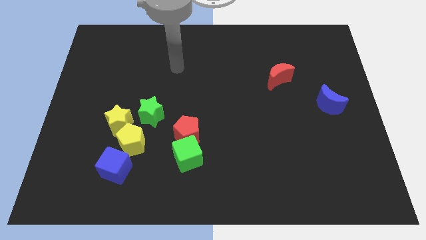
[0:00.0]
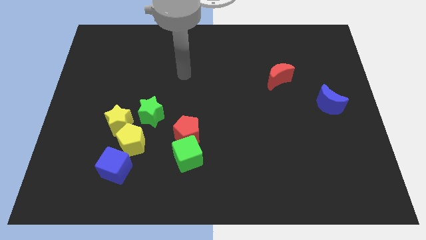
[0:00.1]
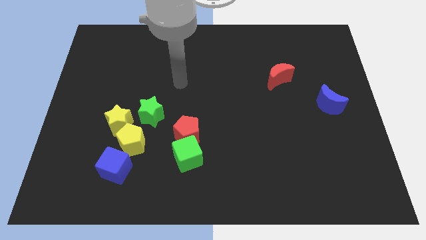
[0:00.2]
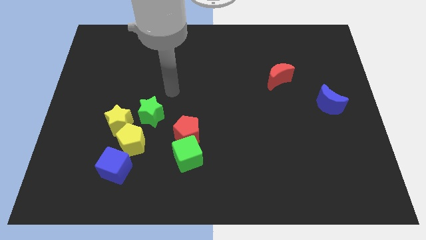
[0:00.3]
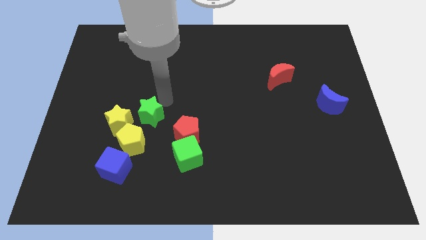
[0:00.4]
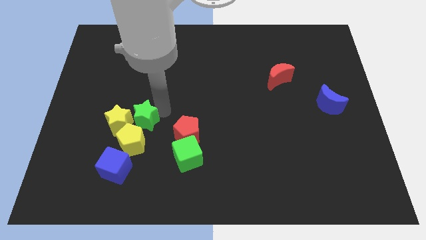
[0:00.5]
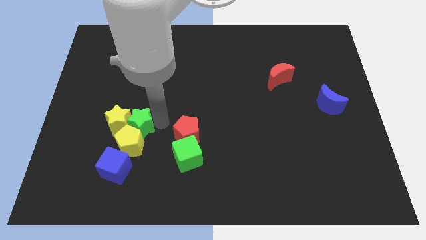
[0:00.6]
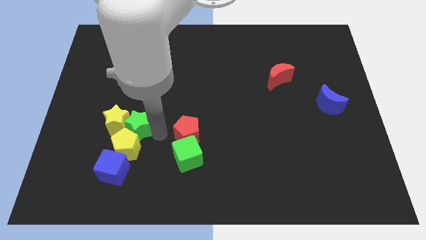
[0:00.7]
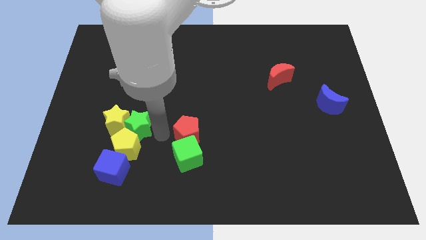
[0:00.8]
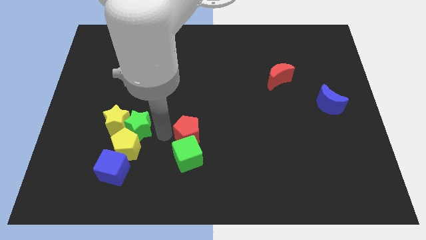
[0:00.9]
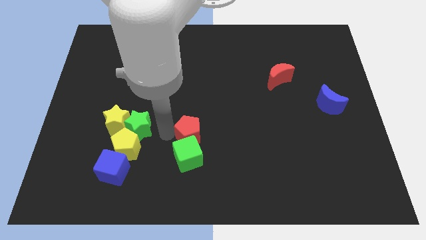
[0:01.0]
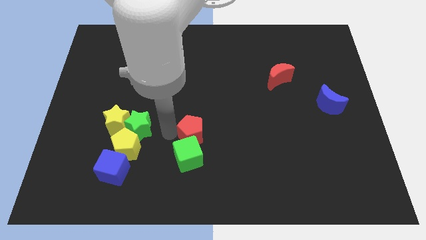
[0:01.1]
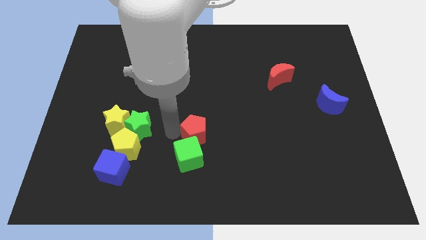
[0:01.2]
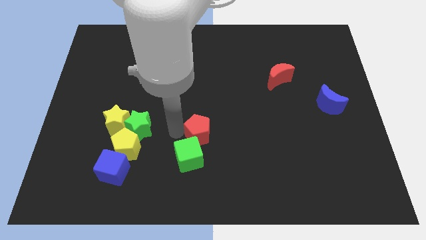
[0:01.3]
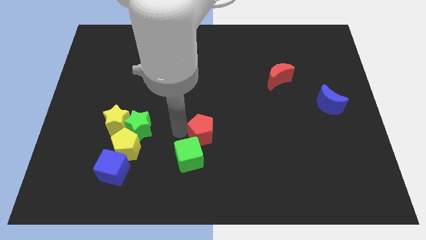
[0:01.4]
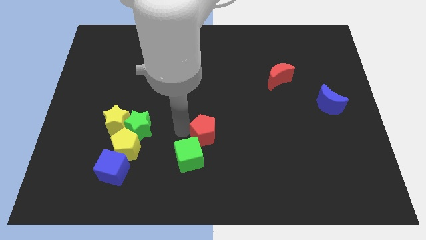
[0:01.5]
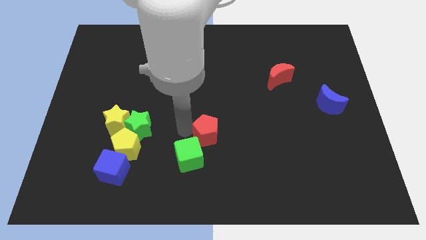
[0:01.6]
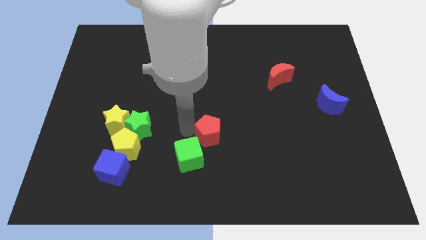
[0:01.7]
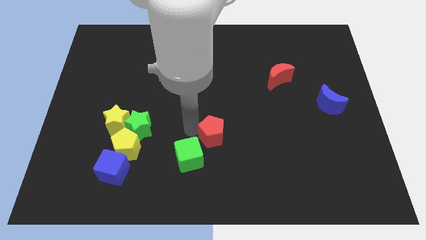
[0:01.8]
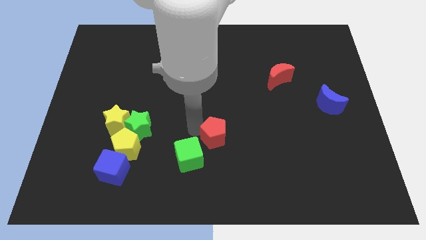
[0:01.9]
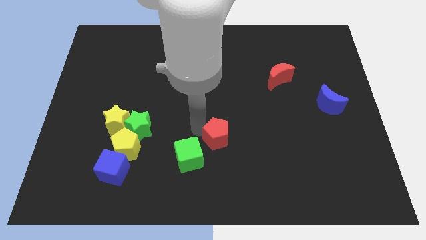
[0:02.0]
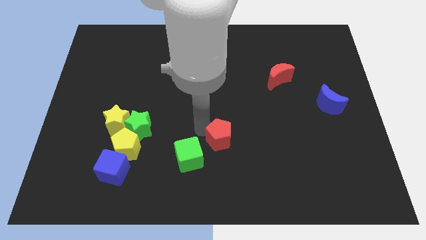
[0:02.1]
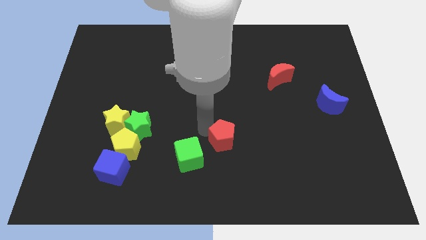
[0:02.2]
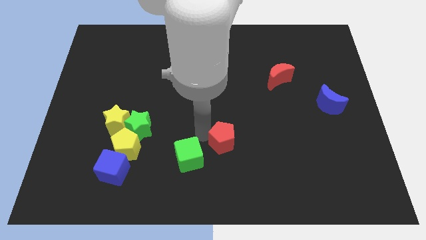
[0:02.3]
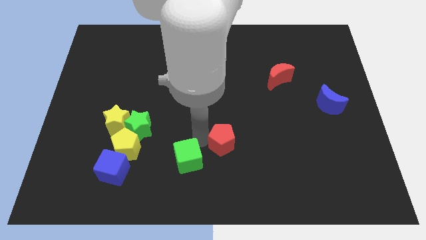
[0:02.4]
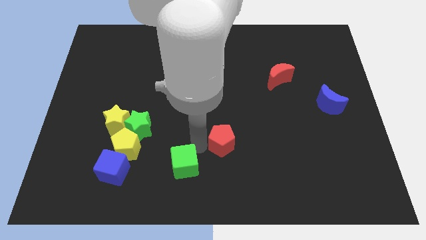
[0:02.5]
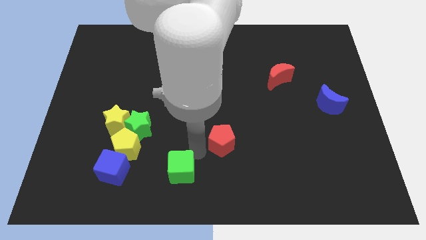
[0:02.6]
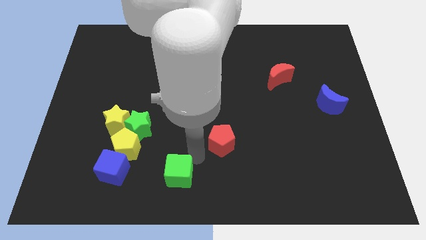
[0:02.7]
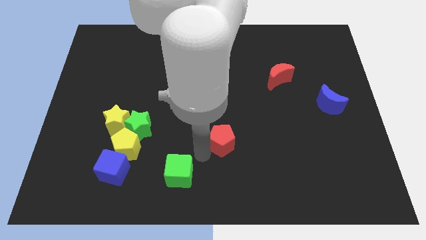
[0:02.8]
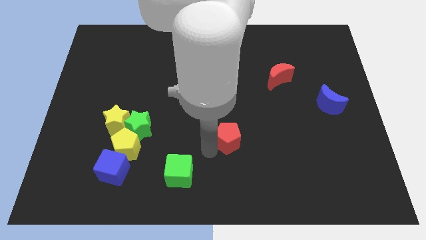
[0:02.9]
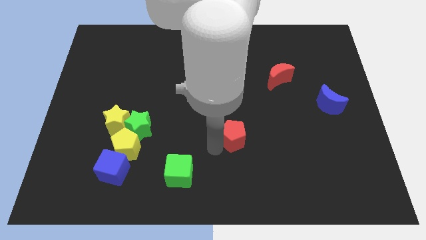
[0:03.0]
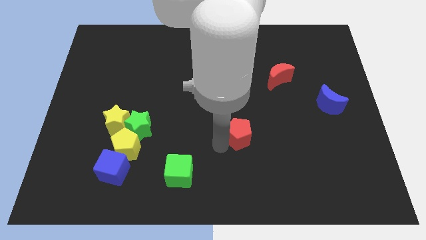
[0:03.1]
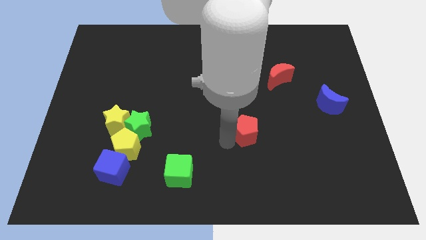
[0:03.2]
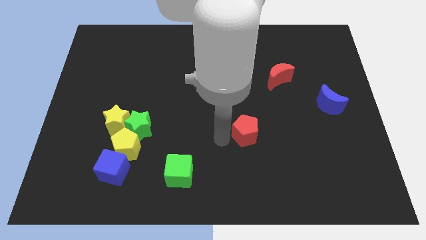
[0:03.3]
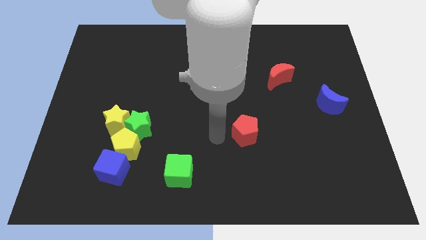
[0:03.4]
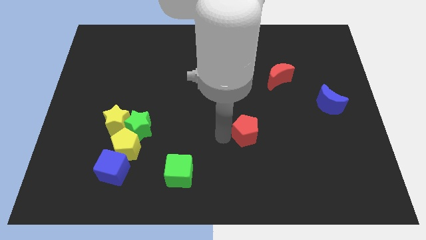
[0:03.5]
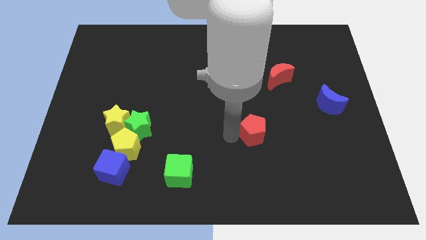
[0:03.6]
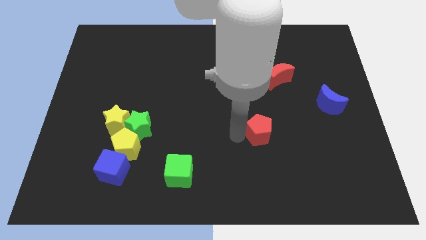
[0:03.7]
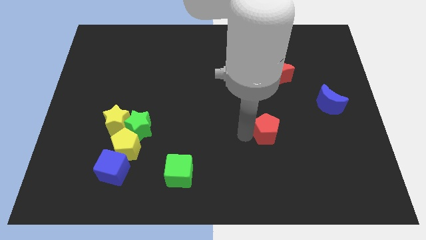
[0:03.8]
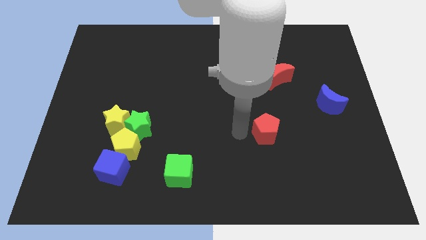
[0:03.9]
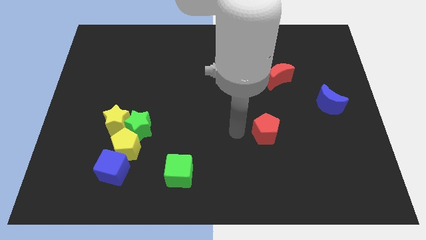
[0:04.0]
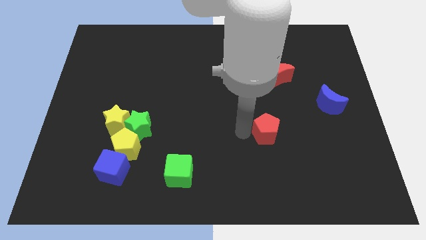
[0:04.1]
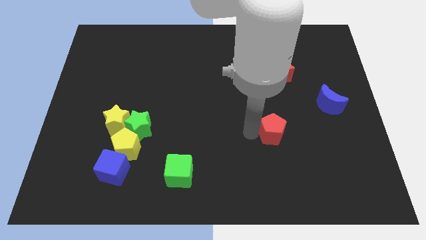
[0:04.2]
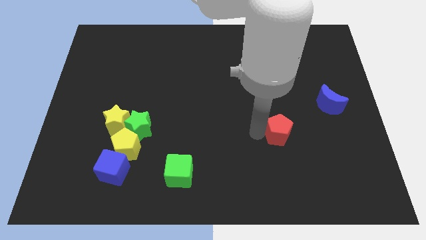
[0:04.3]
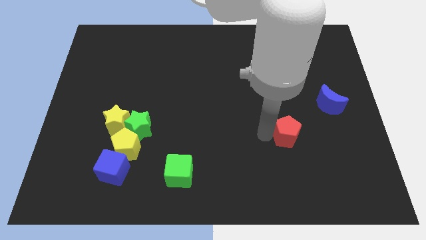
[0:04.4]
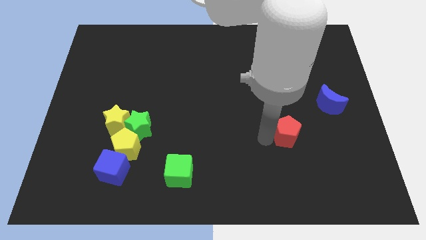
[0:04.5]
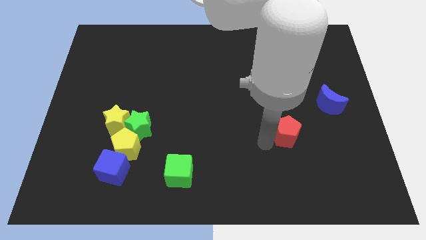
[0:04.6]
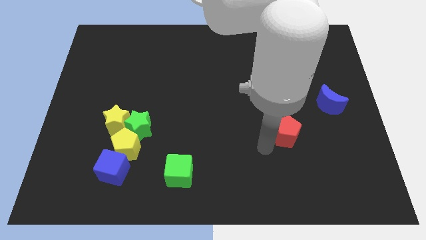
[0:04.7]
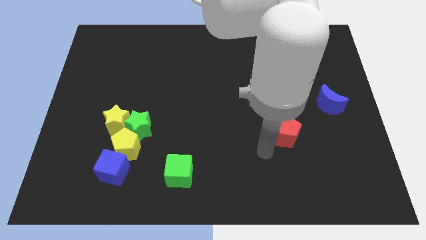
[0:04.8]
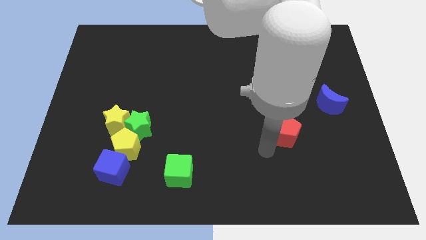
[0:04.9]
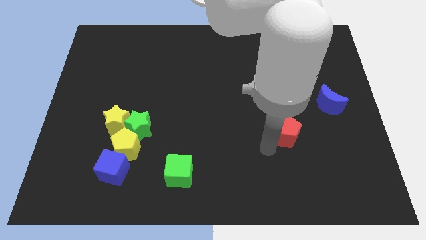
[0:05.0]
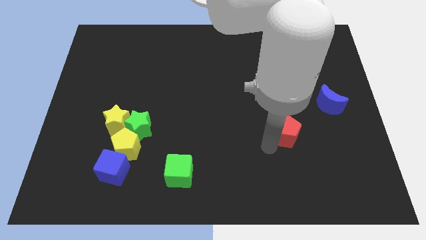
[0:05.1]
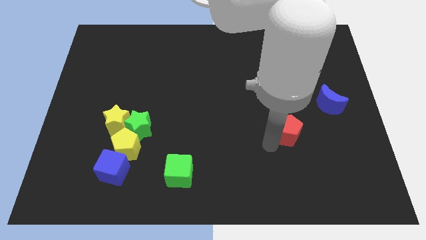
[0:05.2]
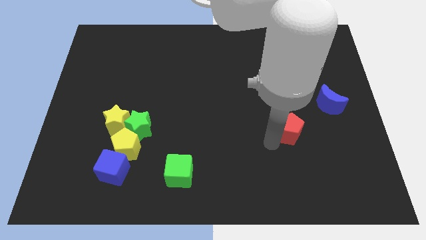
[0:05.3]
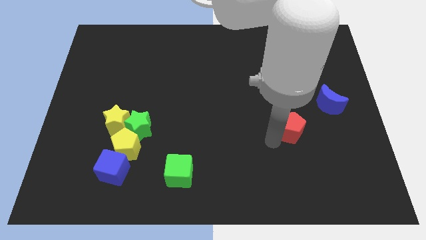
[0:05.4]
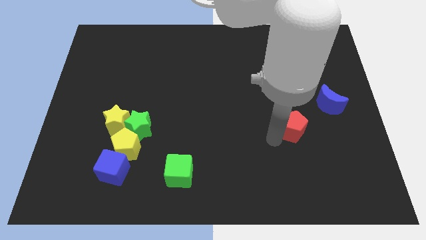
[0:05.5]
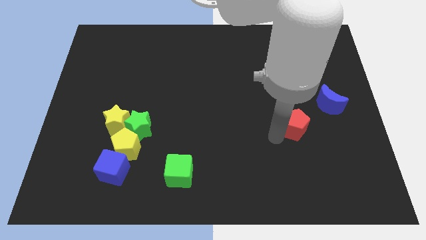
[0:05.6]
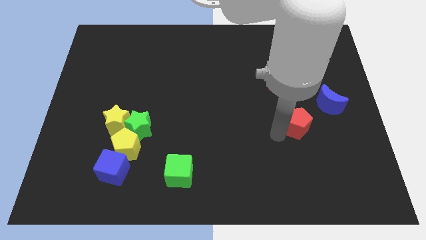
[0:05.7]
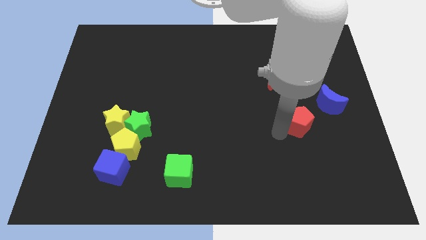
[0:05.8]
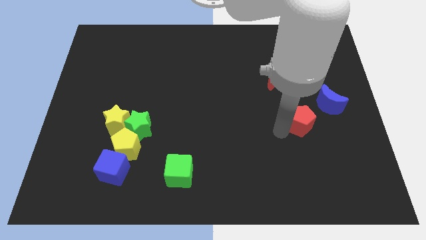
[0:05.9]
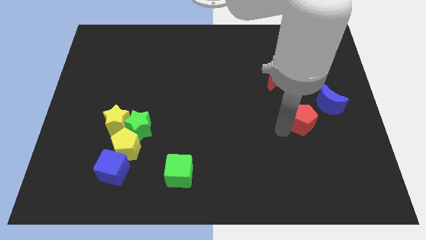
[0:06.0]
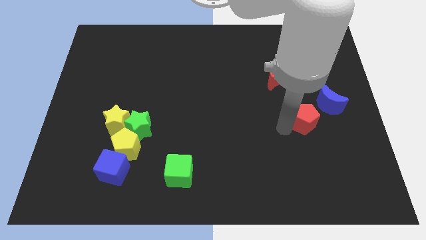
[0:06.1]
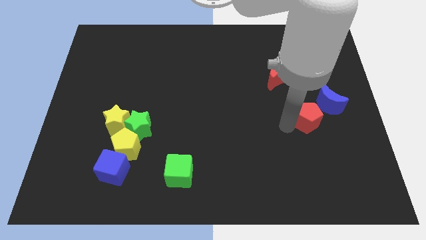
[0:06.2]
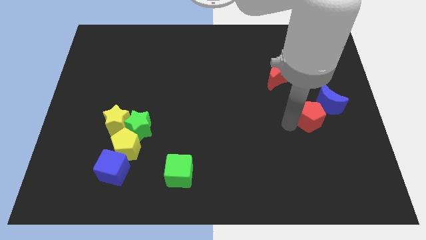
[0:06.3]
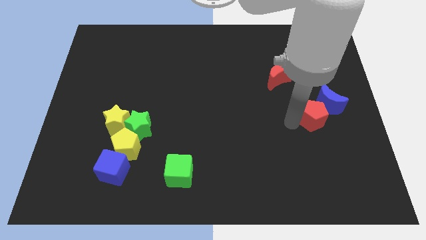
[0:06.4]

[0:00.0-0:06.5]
slide the red pentagon next to the blue moon

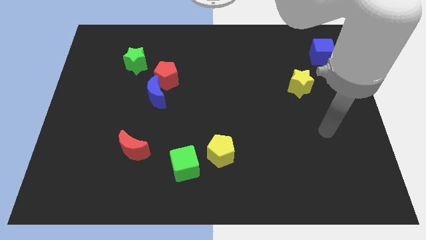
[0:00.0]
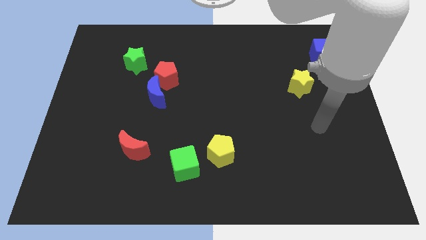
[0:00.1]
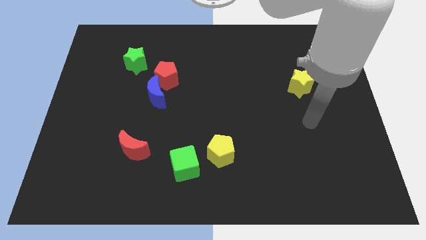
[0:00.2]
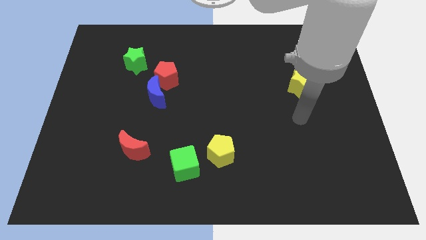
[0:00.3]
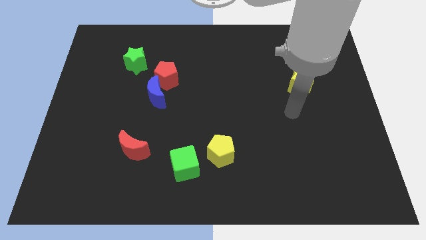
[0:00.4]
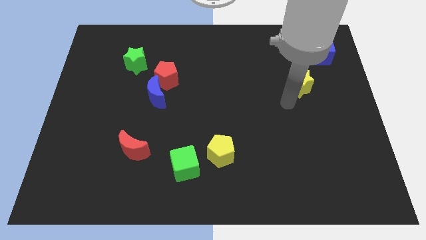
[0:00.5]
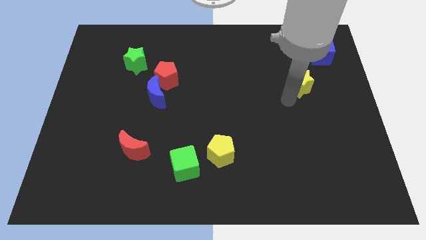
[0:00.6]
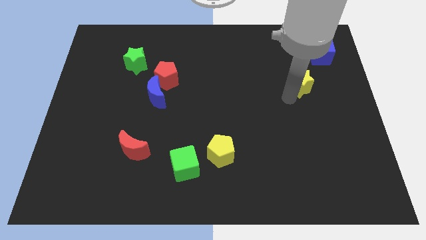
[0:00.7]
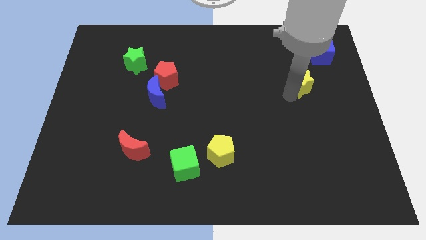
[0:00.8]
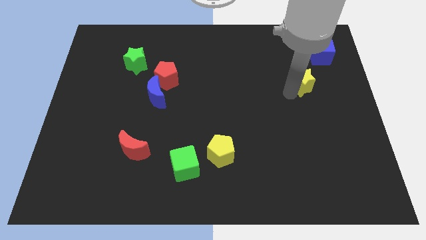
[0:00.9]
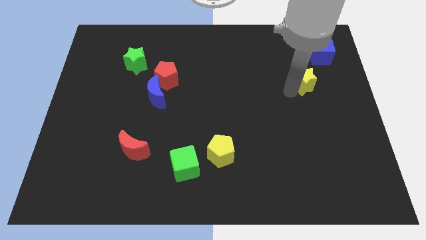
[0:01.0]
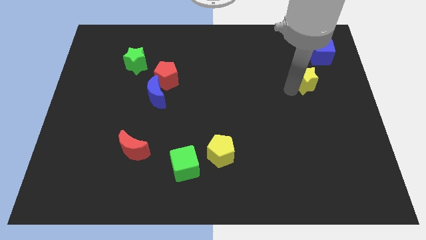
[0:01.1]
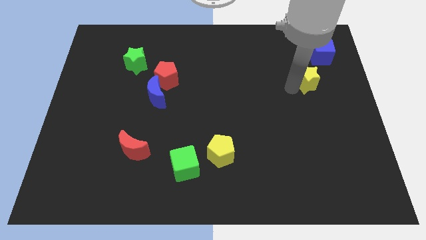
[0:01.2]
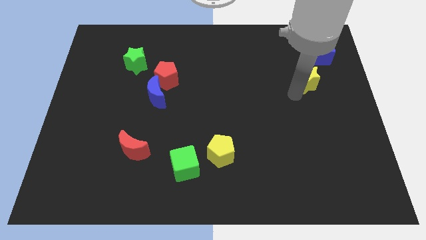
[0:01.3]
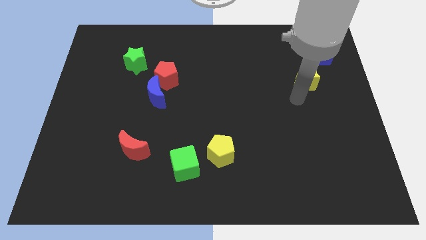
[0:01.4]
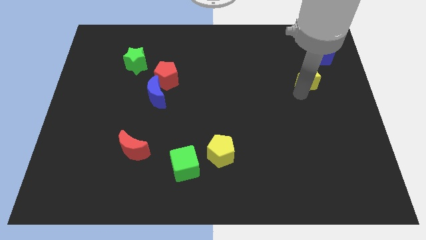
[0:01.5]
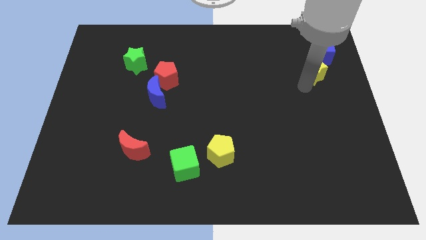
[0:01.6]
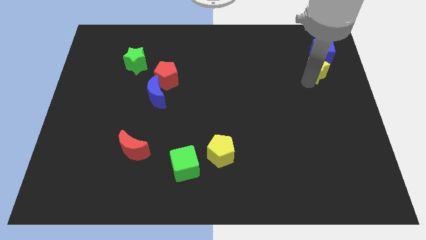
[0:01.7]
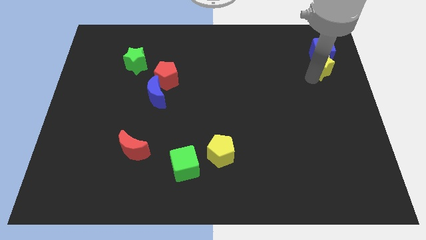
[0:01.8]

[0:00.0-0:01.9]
put the yellow star close to the blue cube

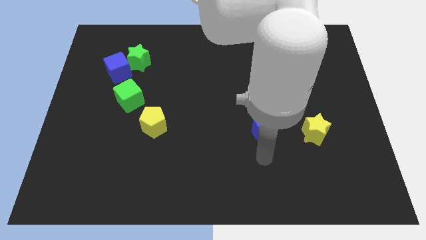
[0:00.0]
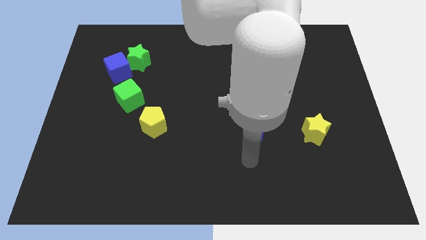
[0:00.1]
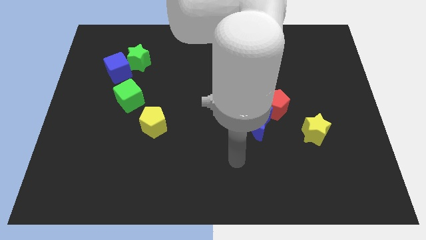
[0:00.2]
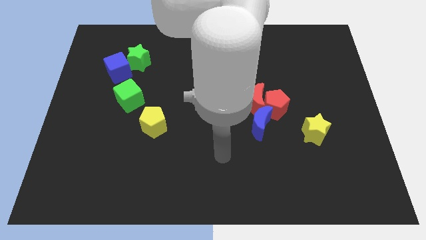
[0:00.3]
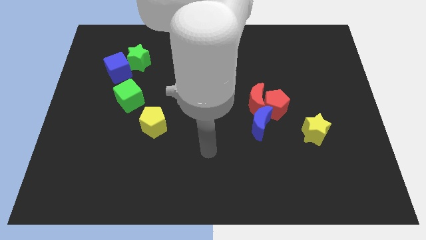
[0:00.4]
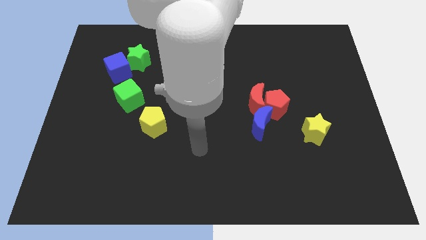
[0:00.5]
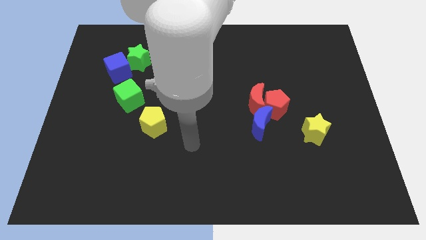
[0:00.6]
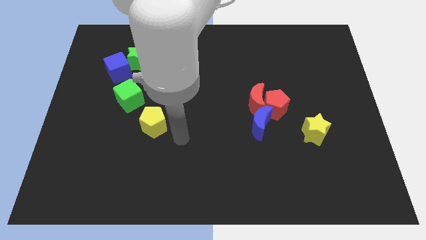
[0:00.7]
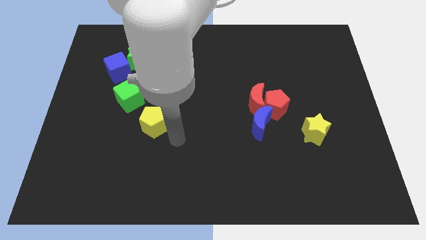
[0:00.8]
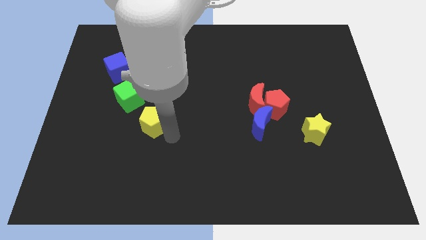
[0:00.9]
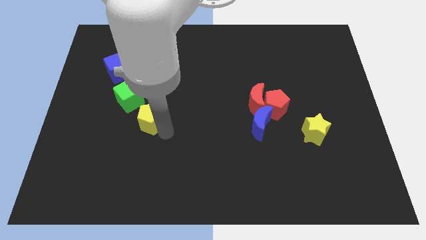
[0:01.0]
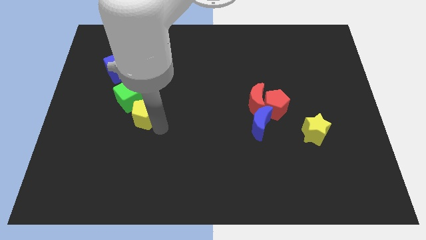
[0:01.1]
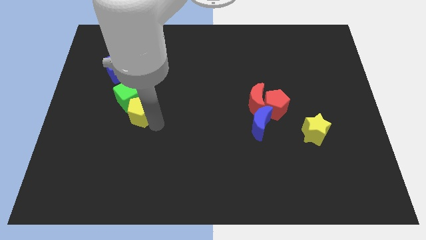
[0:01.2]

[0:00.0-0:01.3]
slide the yellow pentagon close to the green cube
